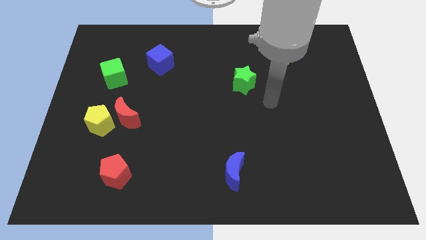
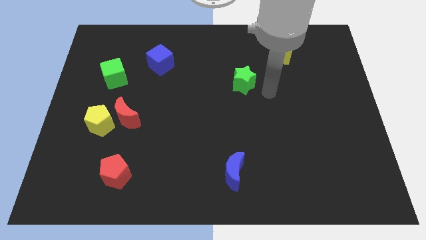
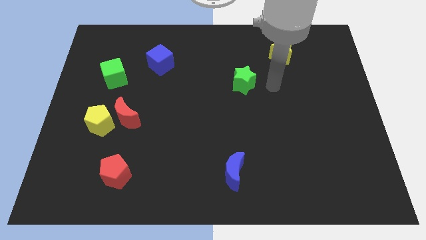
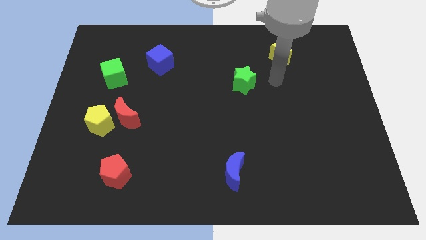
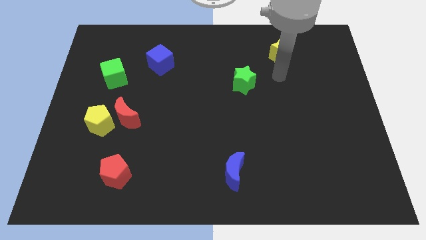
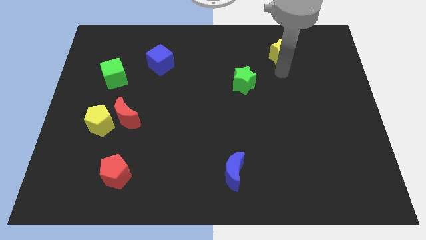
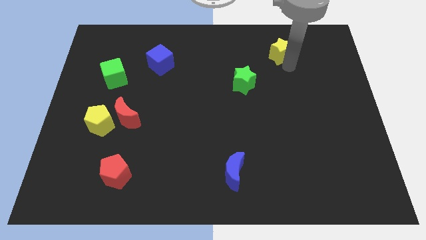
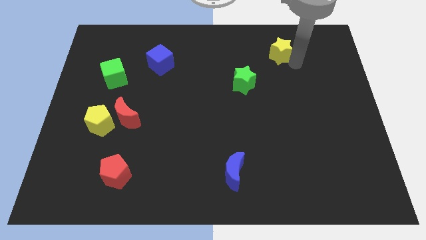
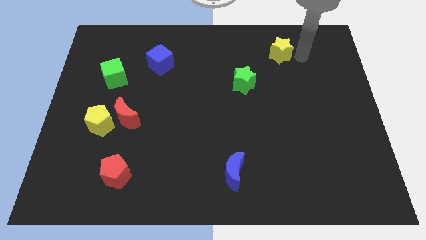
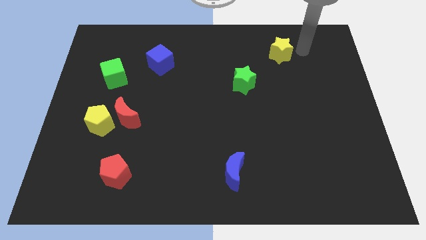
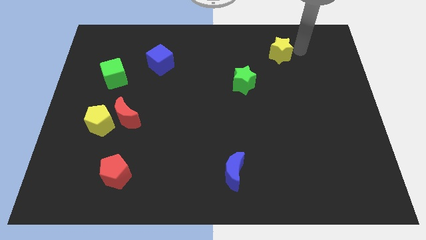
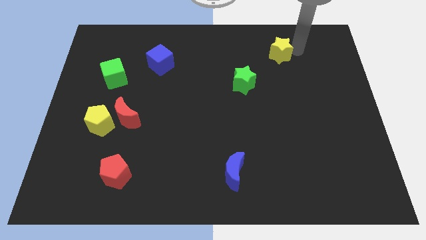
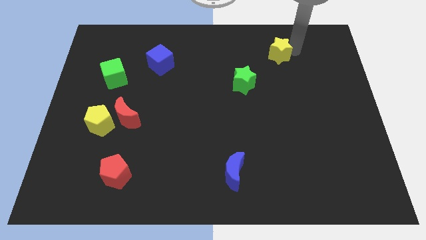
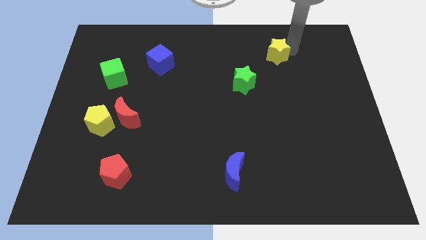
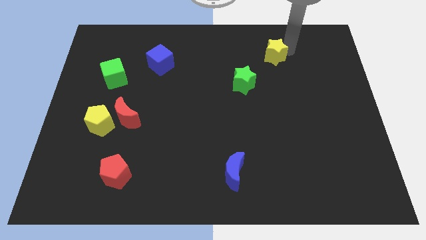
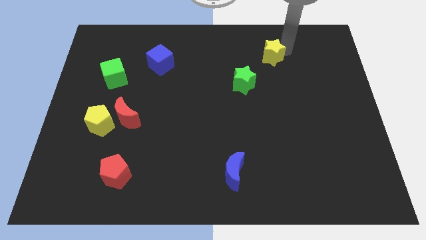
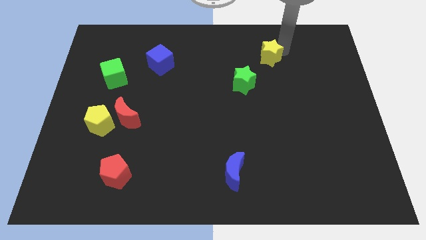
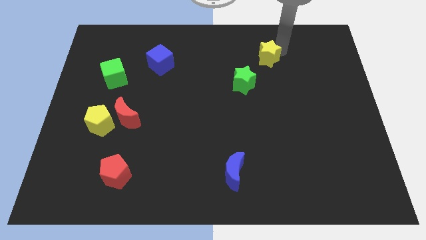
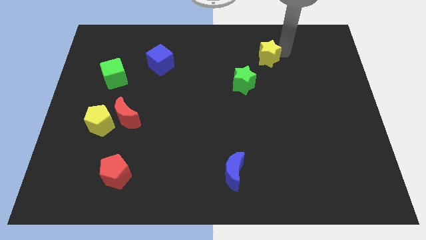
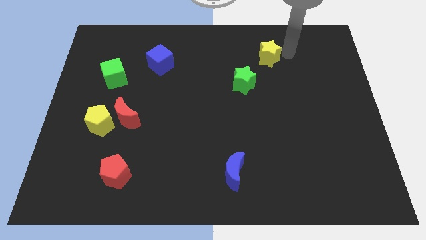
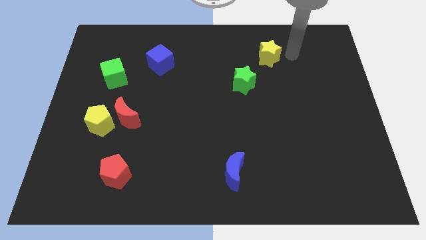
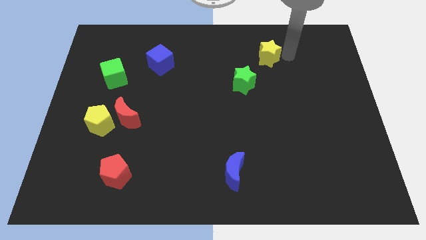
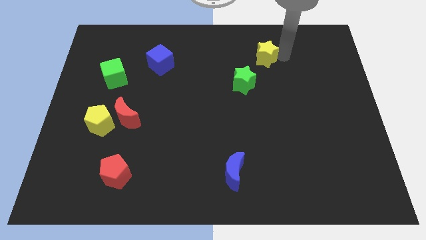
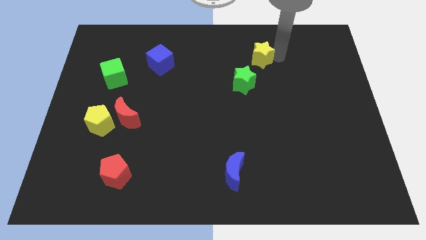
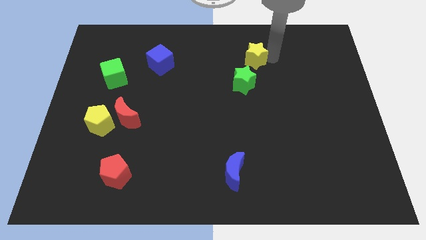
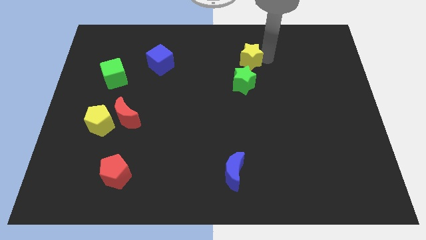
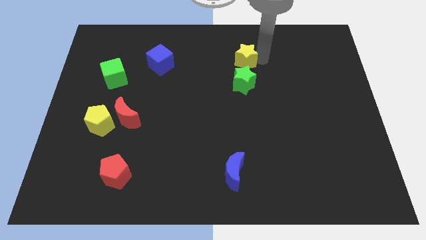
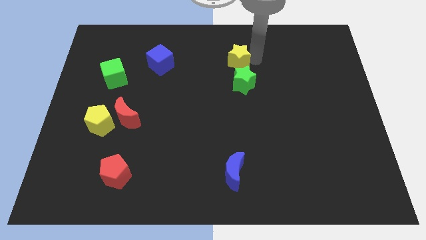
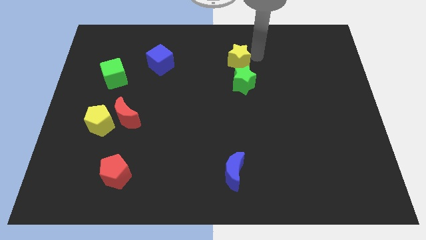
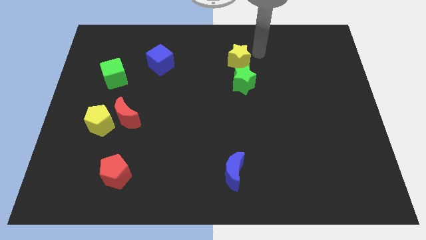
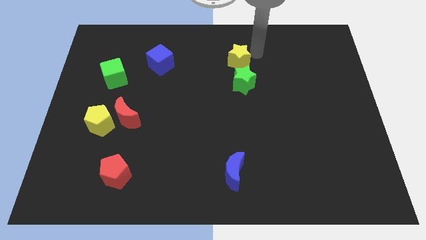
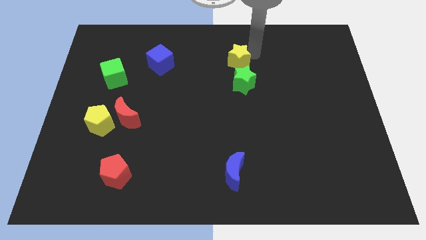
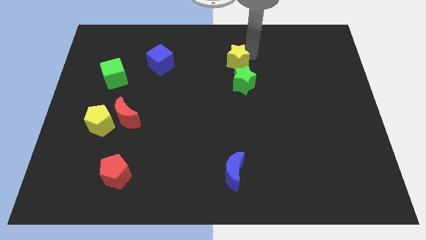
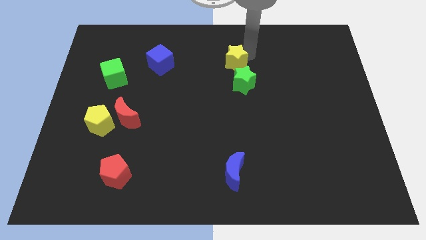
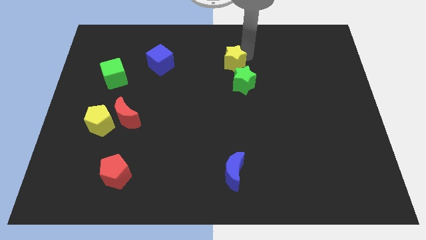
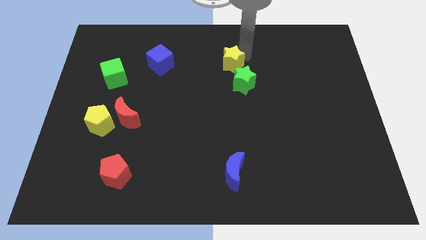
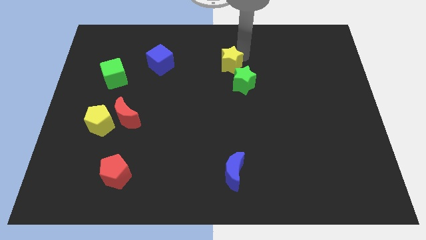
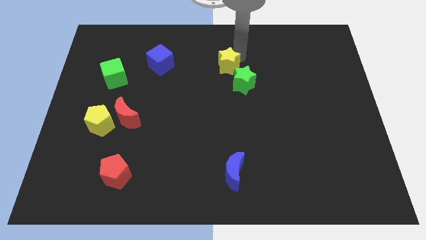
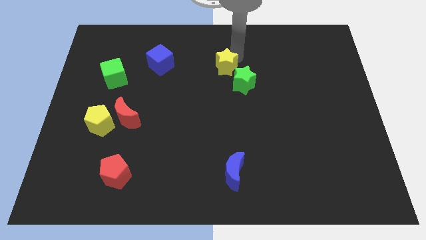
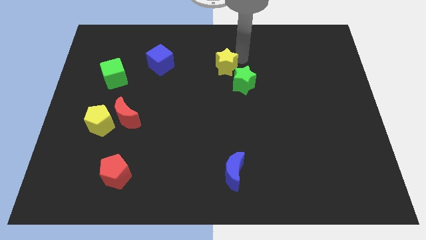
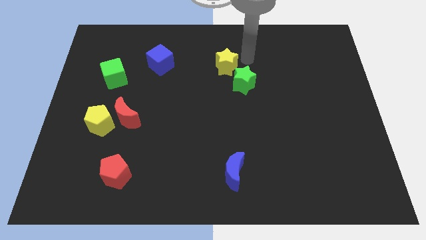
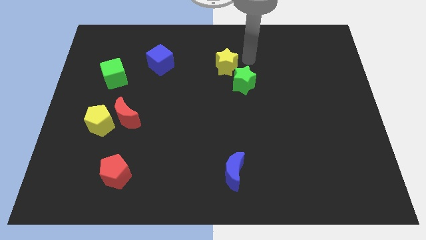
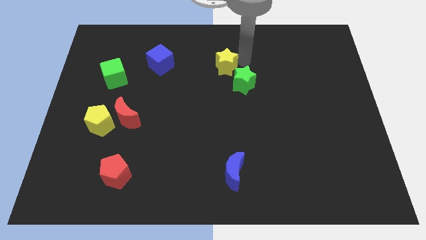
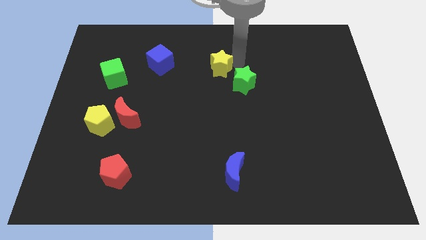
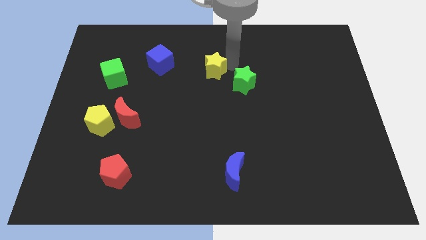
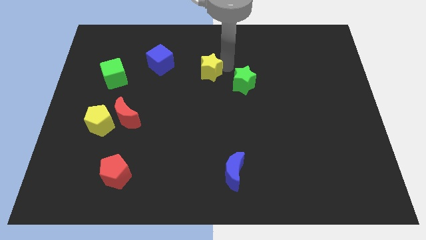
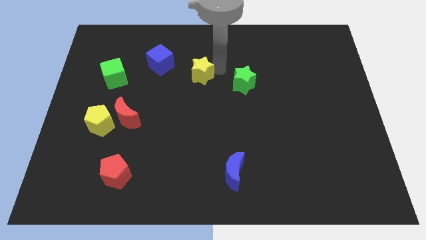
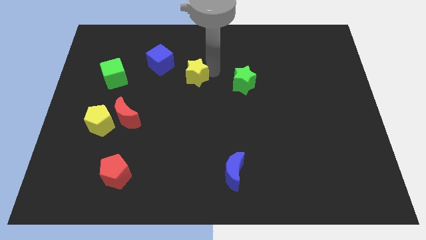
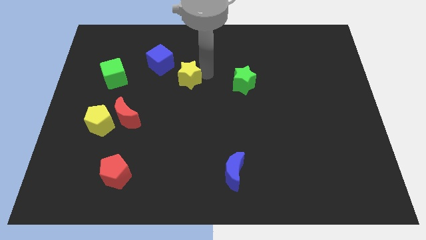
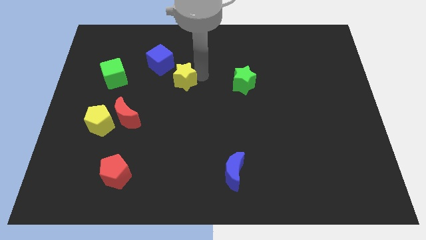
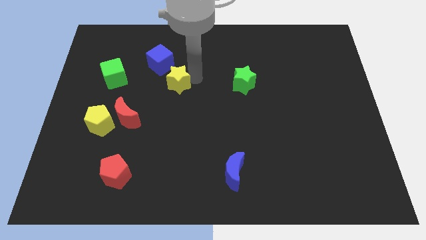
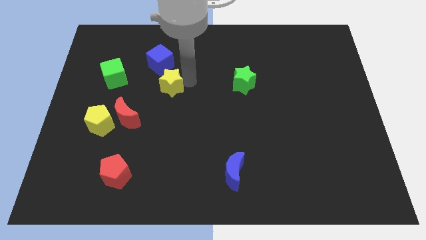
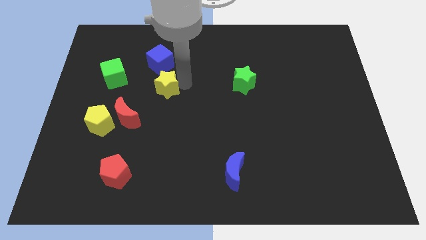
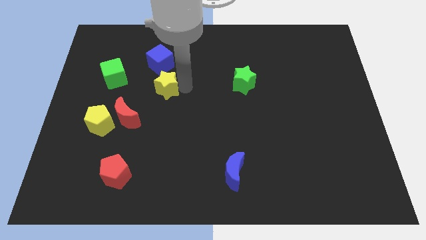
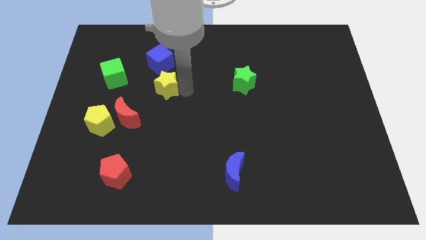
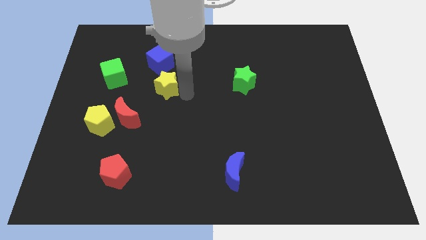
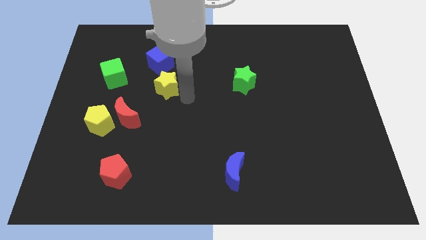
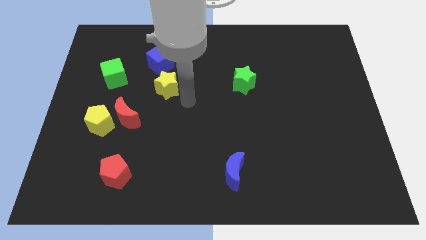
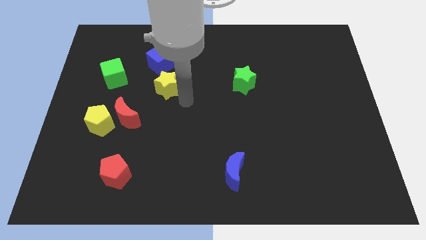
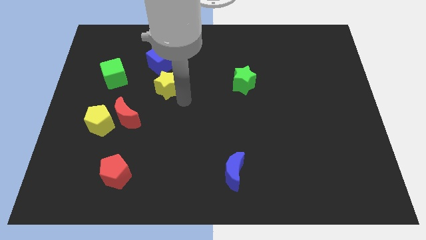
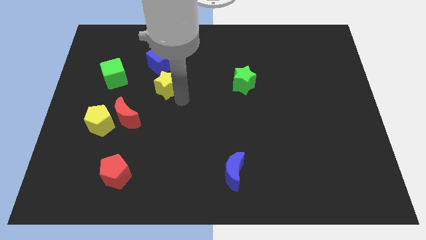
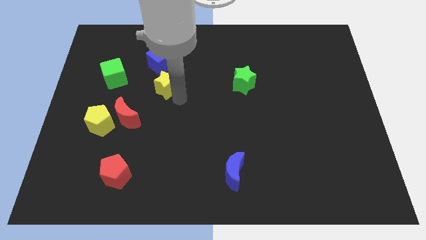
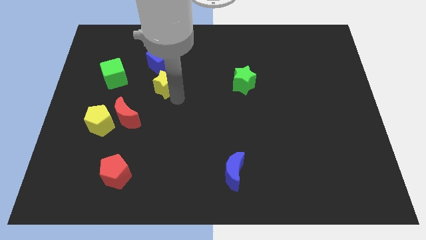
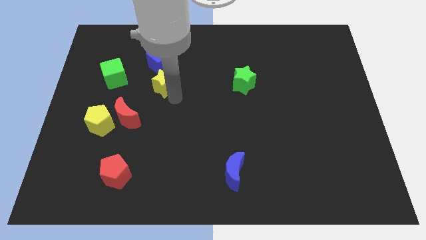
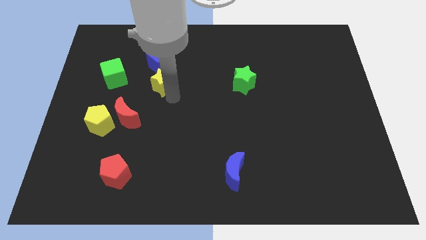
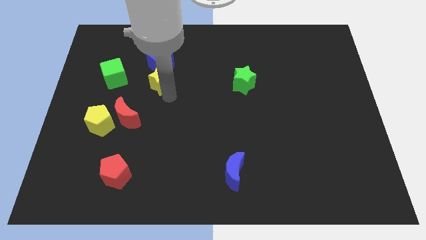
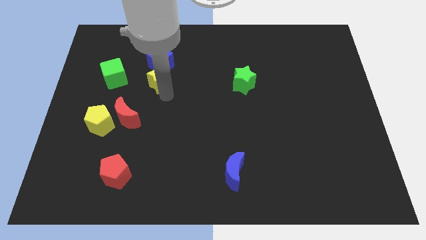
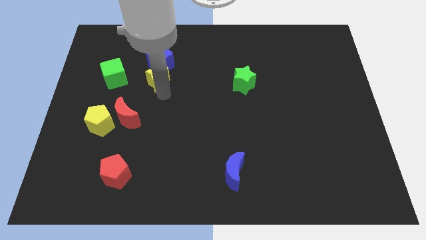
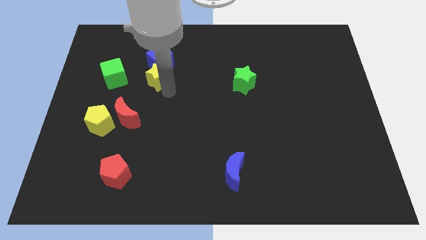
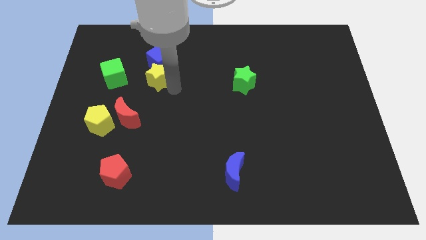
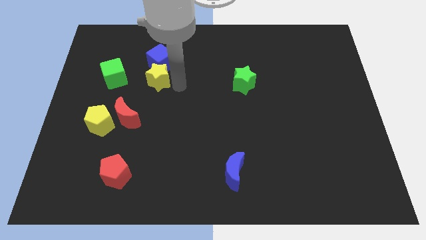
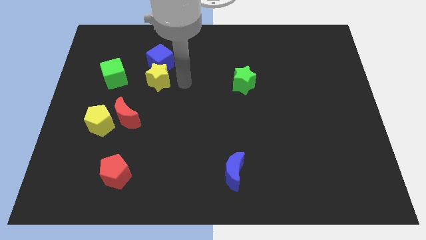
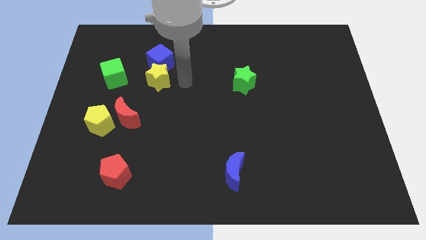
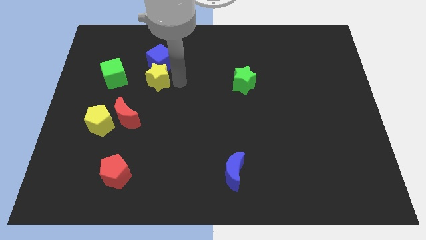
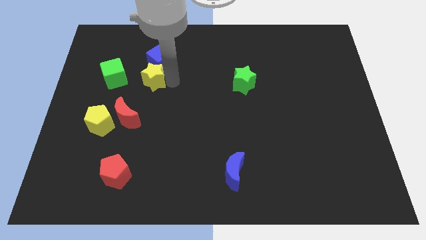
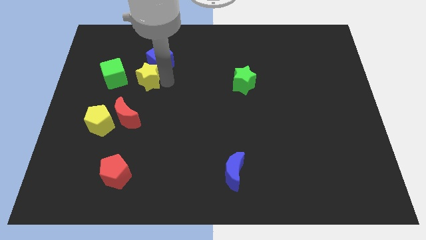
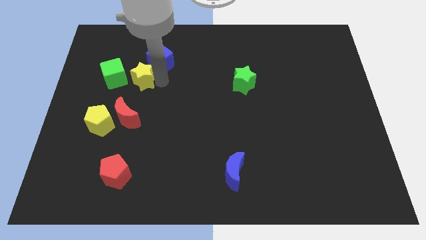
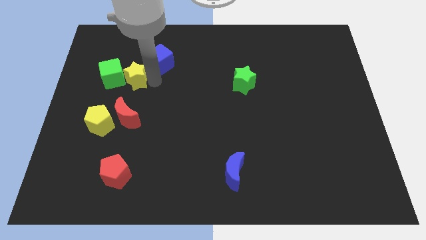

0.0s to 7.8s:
put the yellow star to the green cube
